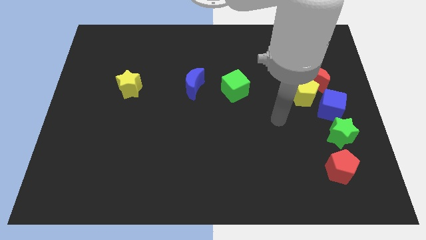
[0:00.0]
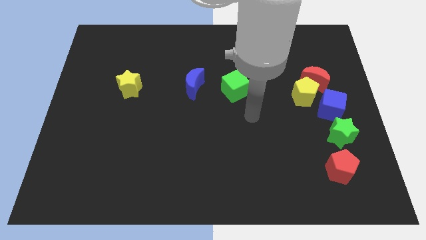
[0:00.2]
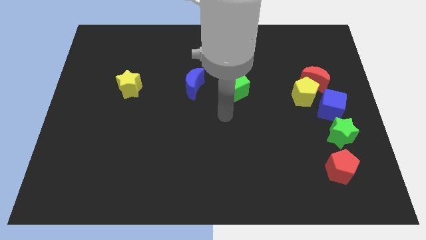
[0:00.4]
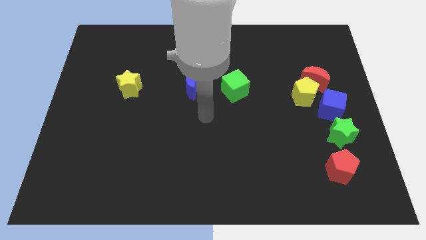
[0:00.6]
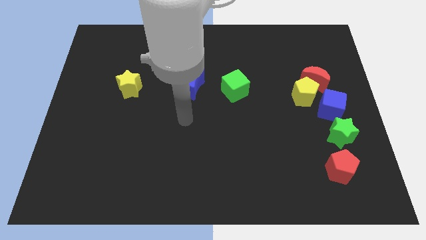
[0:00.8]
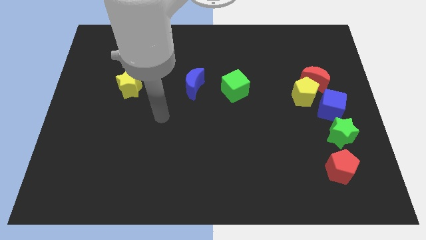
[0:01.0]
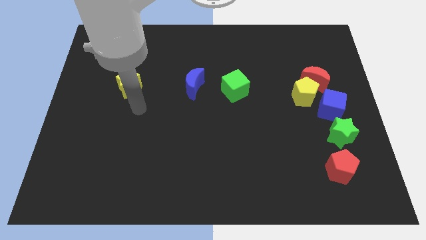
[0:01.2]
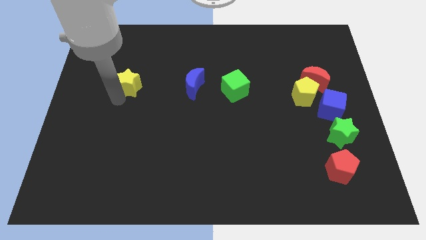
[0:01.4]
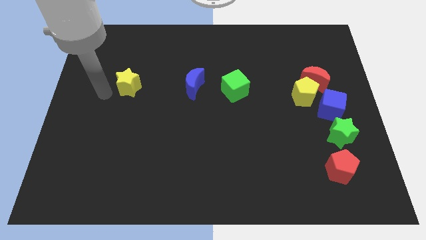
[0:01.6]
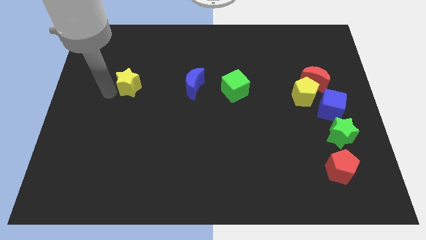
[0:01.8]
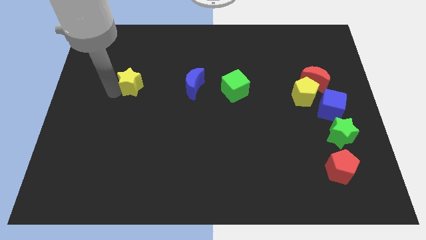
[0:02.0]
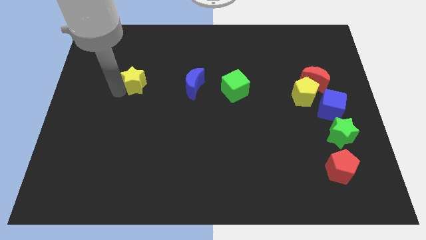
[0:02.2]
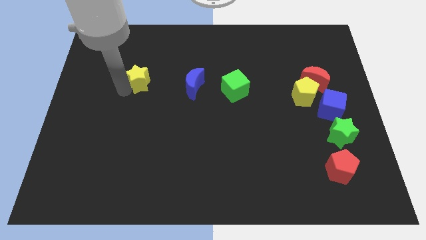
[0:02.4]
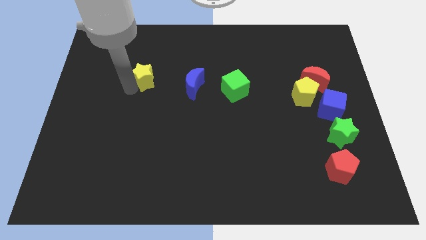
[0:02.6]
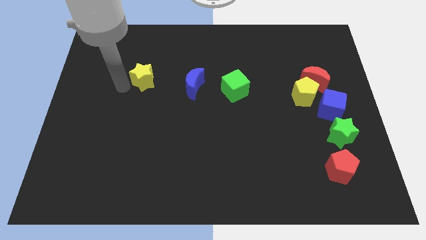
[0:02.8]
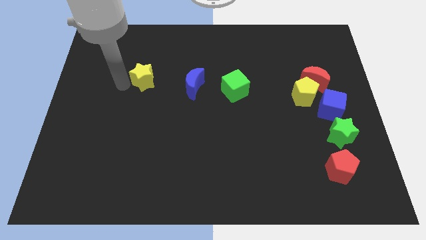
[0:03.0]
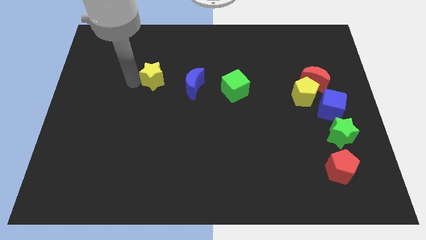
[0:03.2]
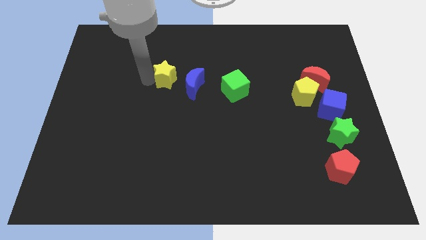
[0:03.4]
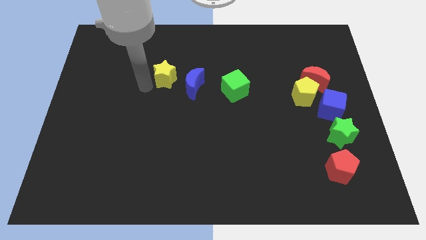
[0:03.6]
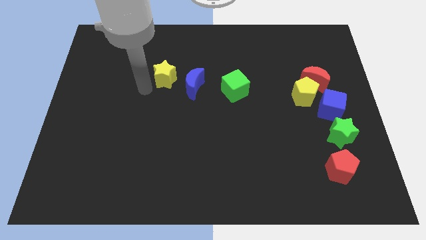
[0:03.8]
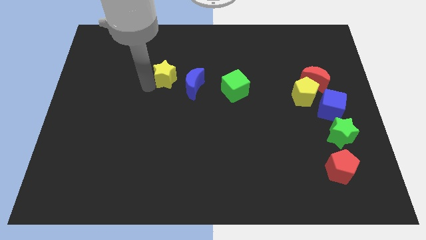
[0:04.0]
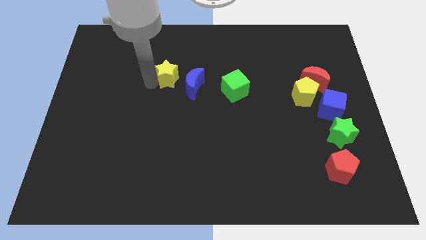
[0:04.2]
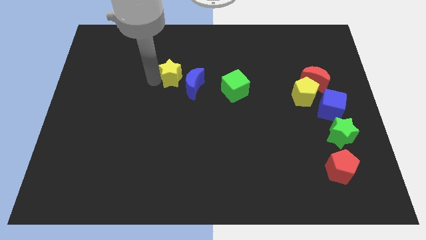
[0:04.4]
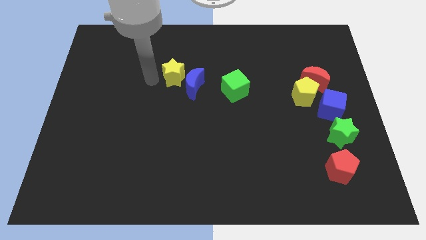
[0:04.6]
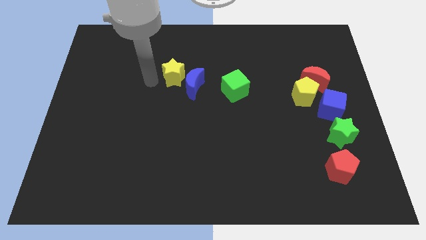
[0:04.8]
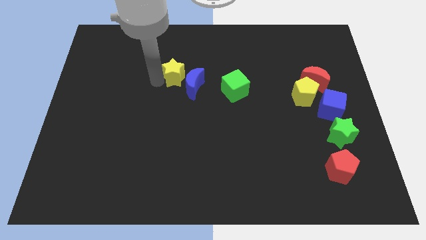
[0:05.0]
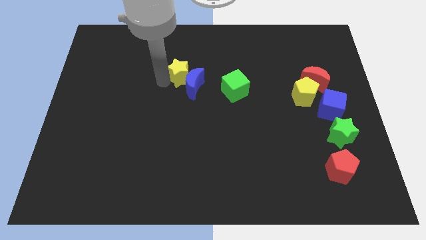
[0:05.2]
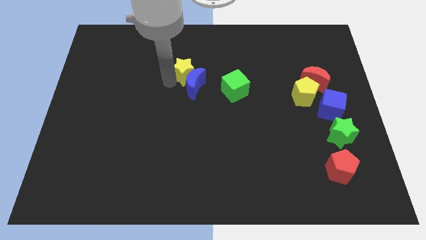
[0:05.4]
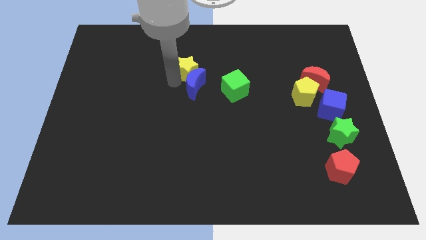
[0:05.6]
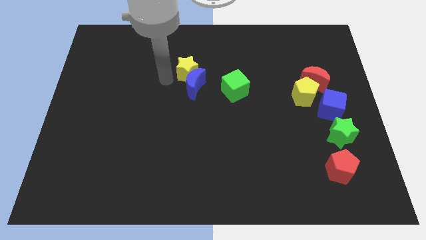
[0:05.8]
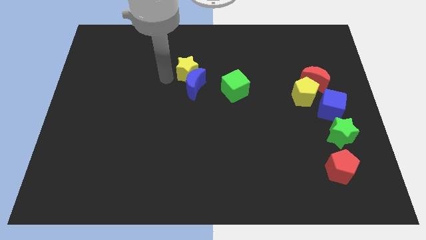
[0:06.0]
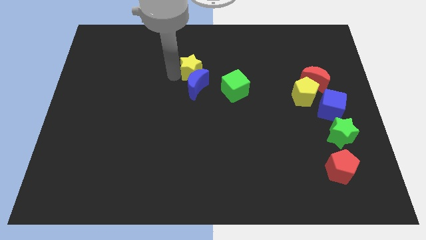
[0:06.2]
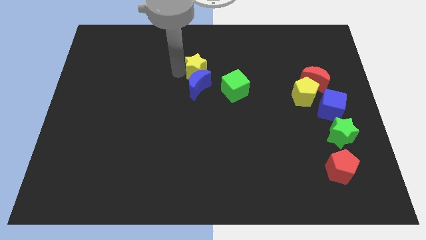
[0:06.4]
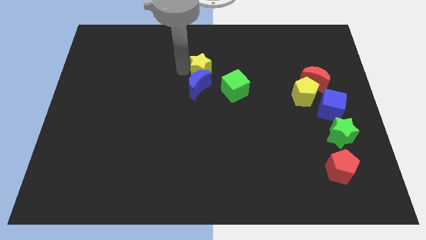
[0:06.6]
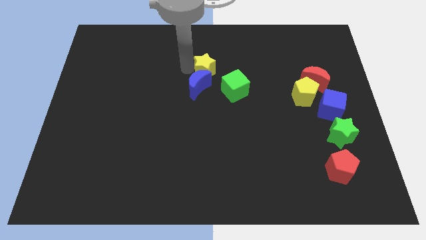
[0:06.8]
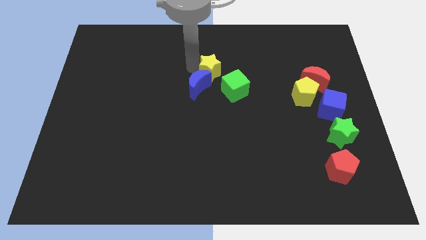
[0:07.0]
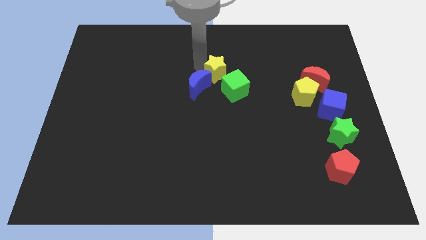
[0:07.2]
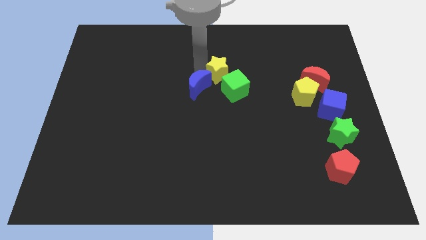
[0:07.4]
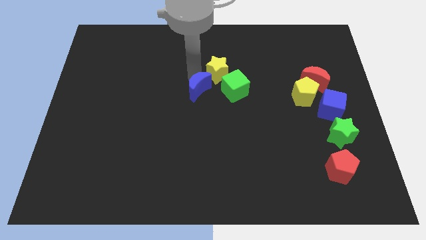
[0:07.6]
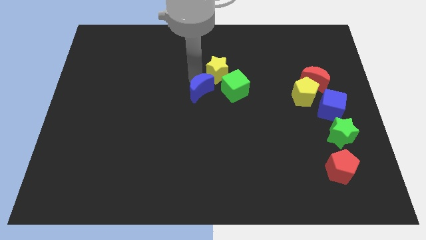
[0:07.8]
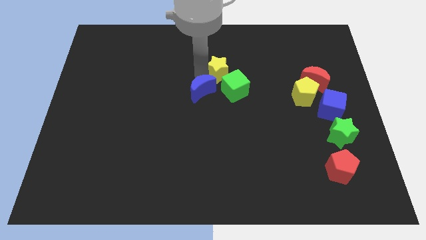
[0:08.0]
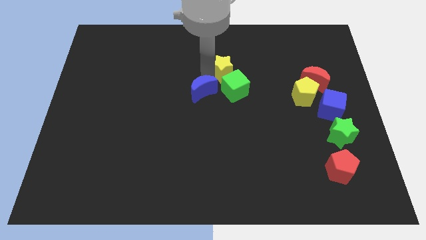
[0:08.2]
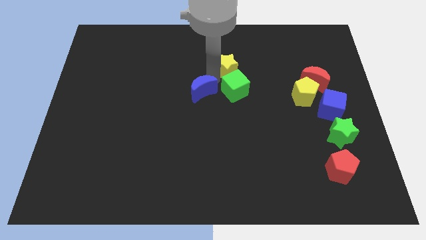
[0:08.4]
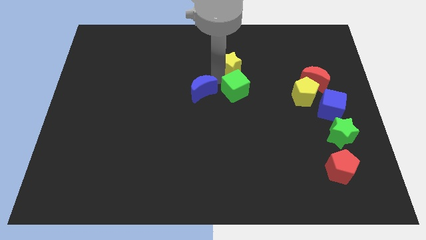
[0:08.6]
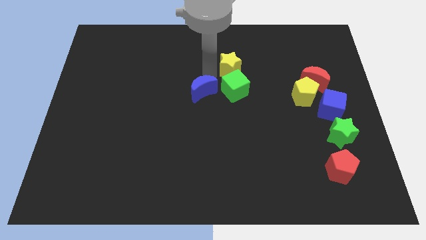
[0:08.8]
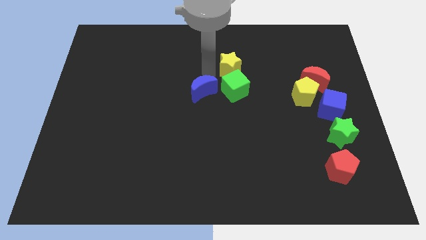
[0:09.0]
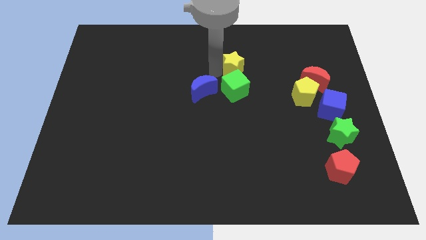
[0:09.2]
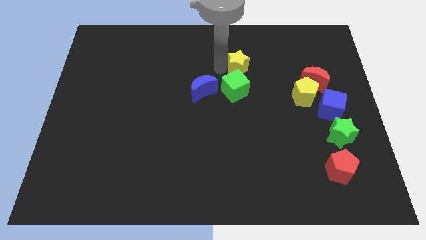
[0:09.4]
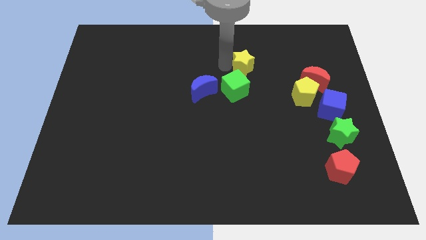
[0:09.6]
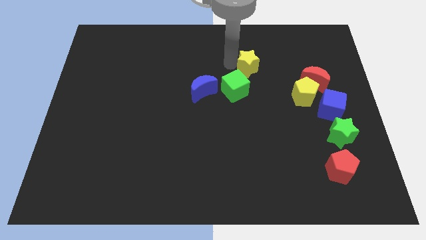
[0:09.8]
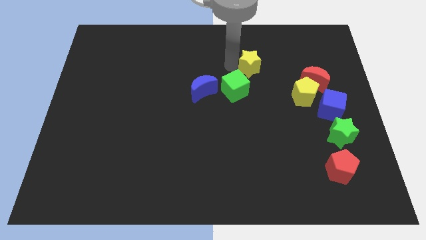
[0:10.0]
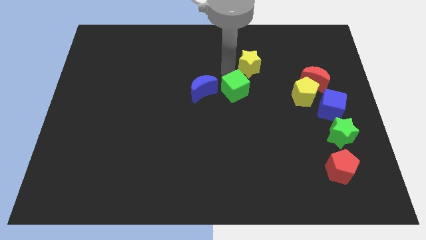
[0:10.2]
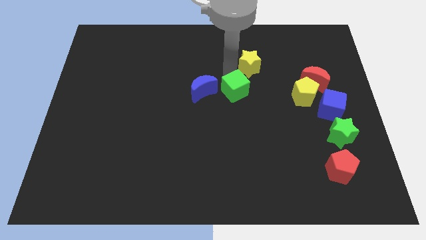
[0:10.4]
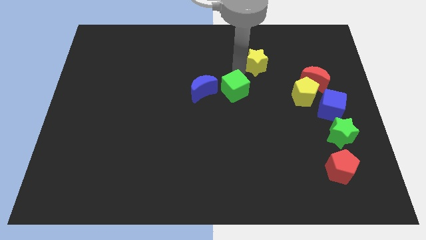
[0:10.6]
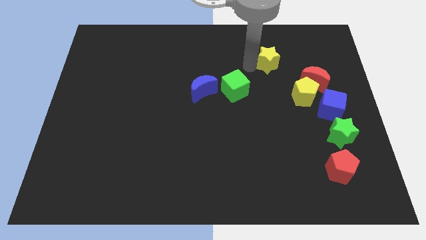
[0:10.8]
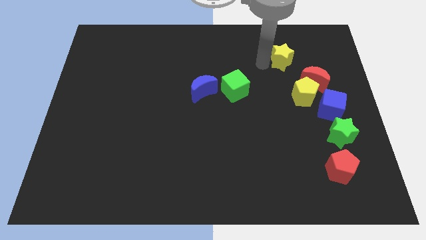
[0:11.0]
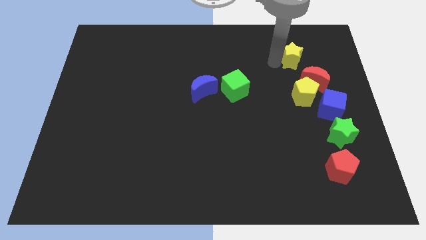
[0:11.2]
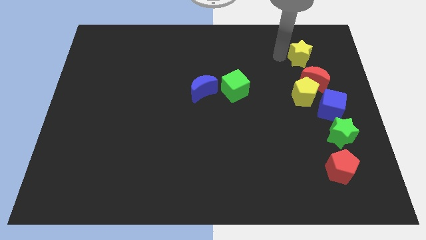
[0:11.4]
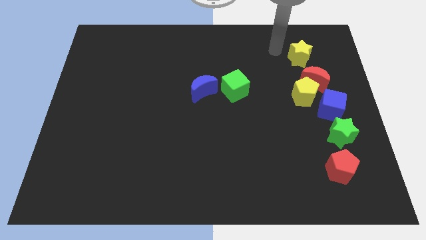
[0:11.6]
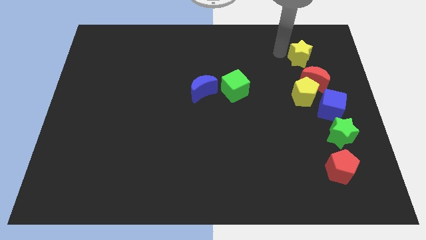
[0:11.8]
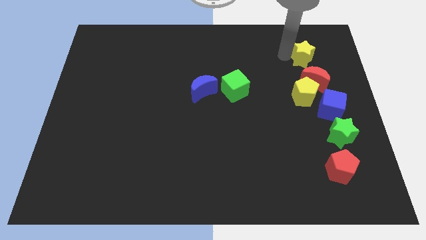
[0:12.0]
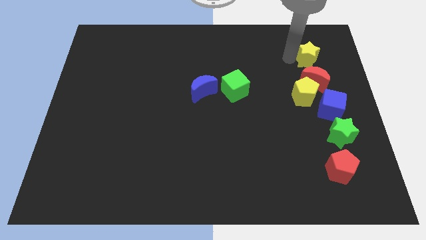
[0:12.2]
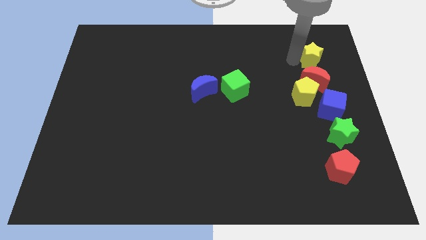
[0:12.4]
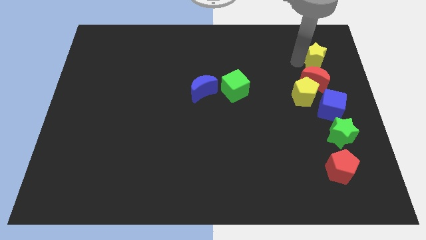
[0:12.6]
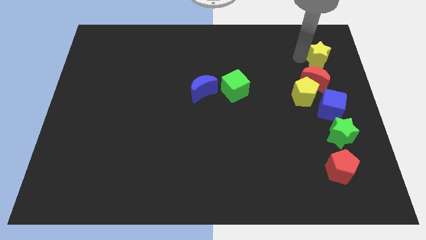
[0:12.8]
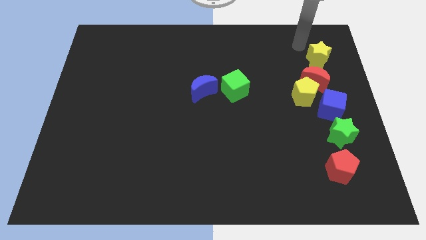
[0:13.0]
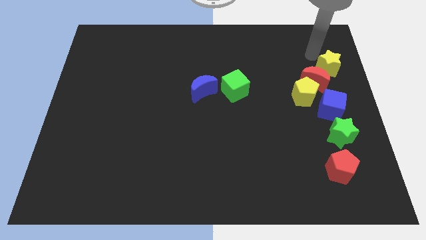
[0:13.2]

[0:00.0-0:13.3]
move the yellow star to the center right
